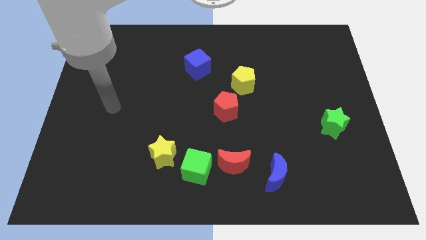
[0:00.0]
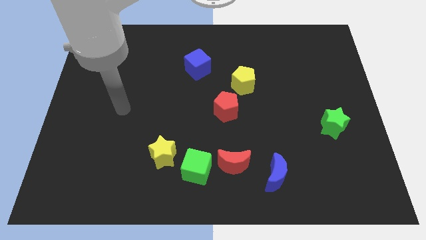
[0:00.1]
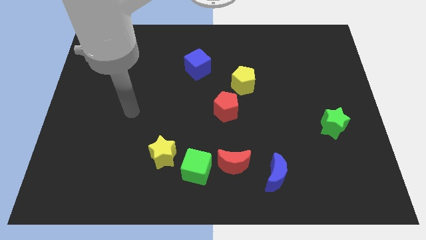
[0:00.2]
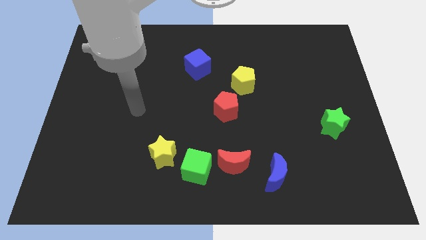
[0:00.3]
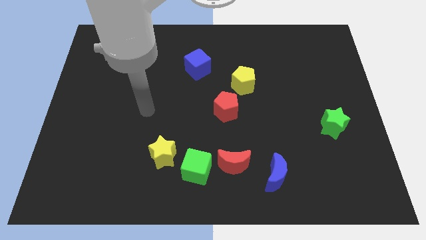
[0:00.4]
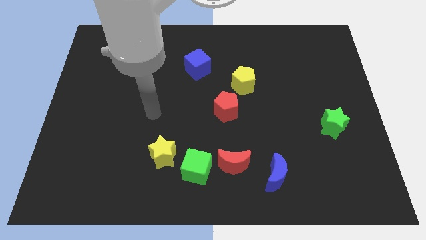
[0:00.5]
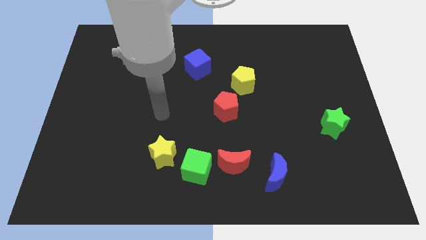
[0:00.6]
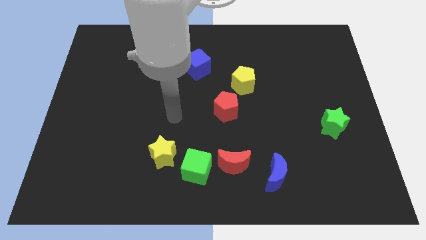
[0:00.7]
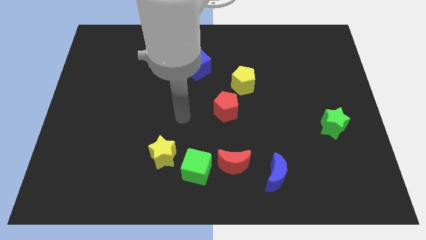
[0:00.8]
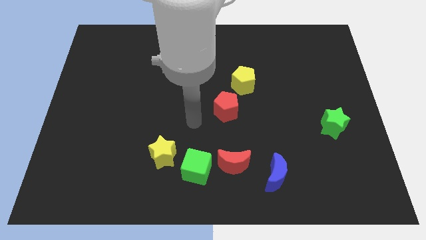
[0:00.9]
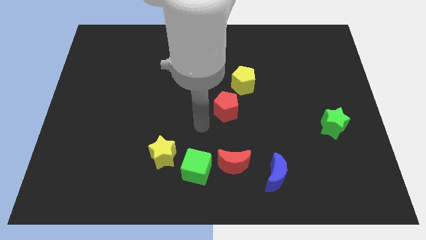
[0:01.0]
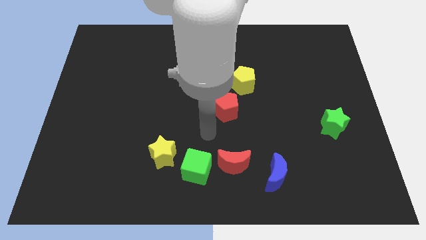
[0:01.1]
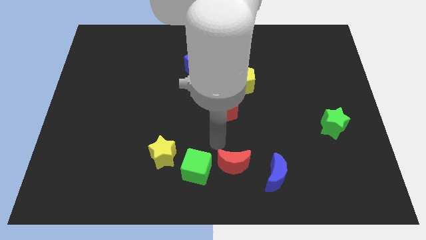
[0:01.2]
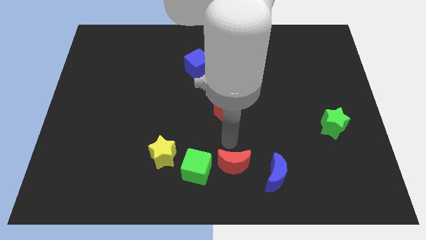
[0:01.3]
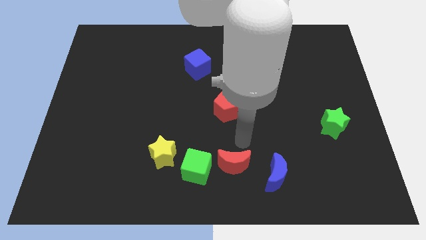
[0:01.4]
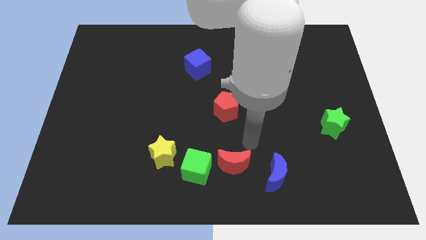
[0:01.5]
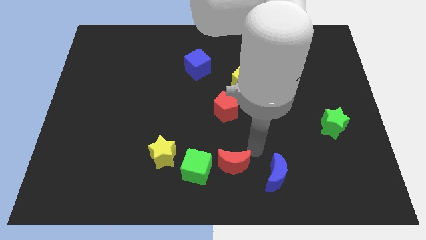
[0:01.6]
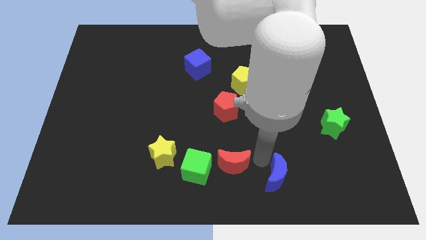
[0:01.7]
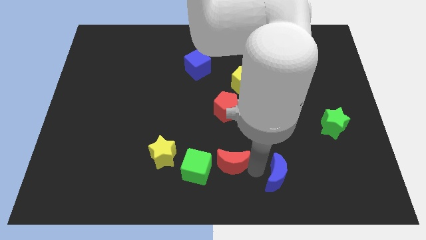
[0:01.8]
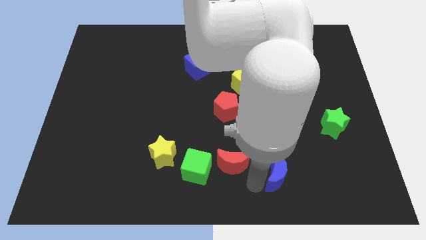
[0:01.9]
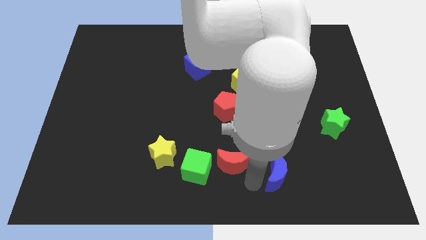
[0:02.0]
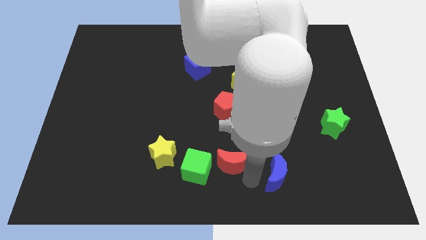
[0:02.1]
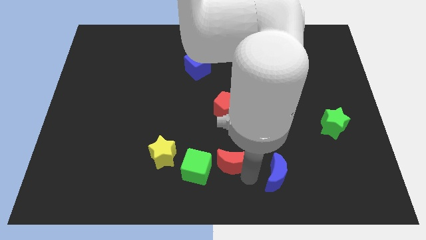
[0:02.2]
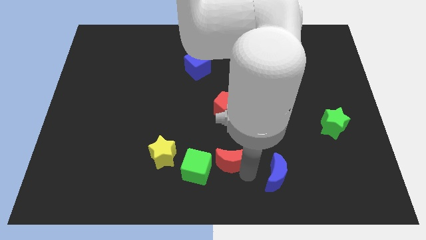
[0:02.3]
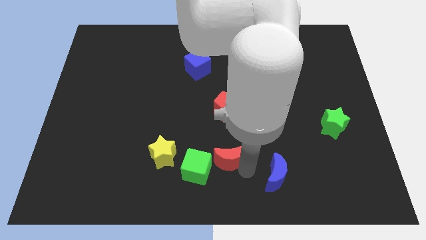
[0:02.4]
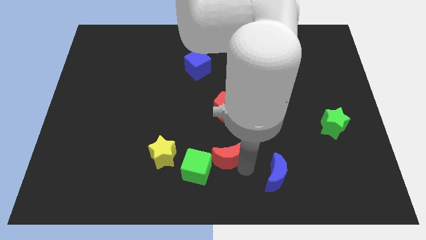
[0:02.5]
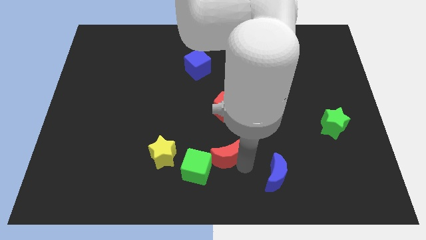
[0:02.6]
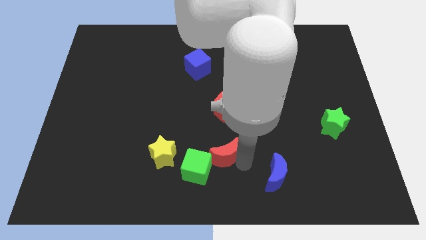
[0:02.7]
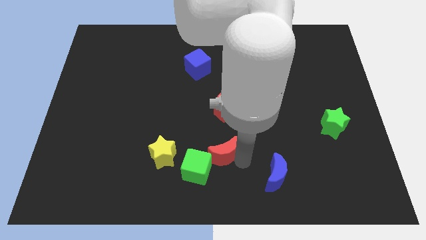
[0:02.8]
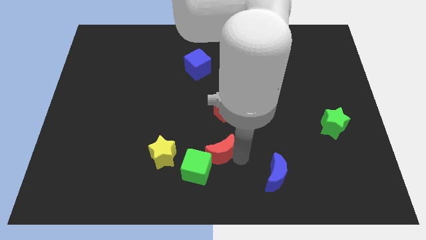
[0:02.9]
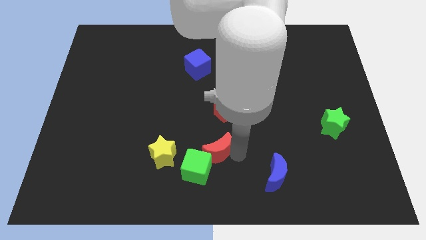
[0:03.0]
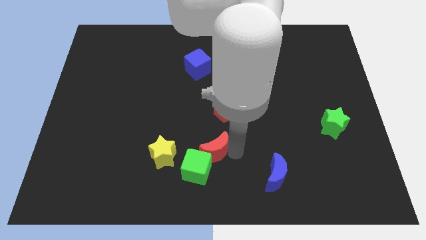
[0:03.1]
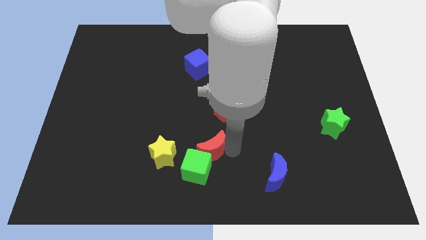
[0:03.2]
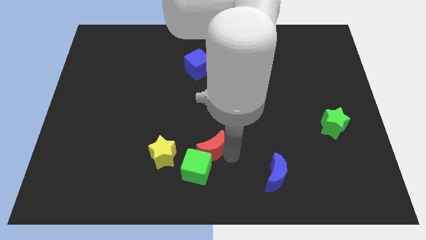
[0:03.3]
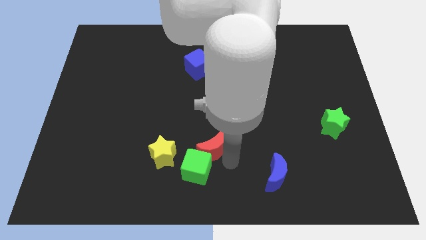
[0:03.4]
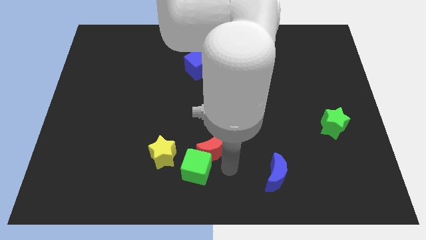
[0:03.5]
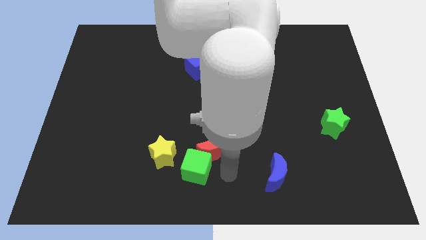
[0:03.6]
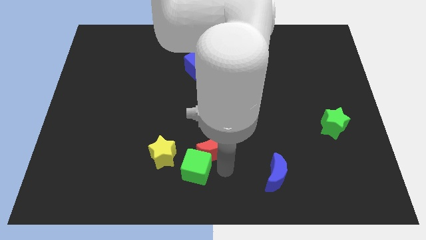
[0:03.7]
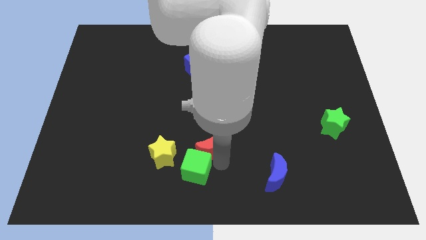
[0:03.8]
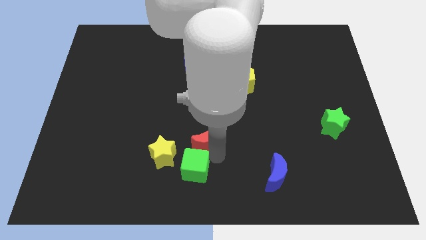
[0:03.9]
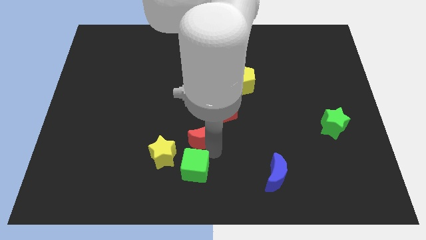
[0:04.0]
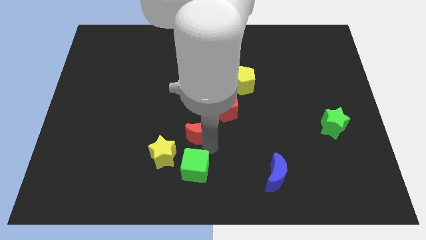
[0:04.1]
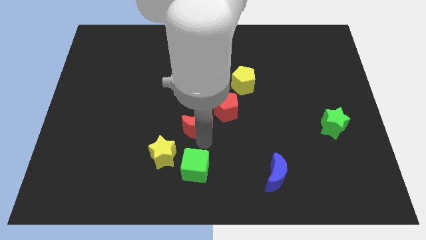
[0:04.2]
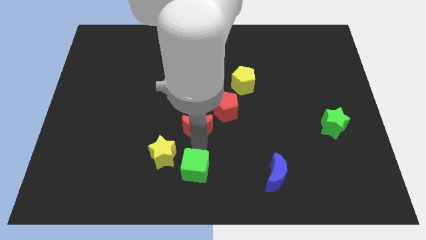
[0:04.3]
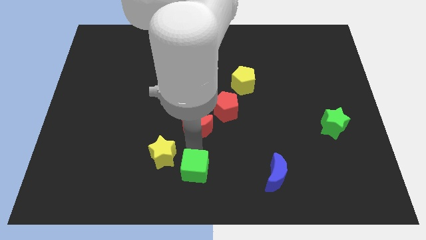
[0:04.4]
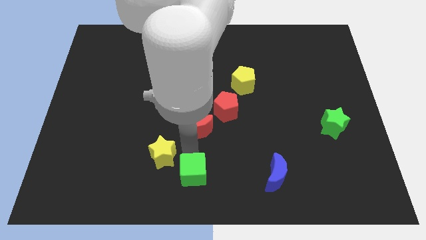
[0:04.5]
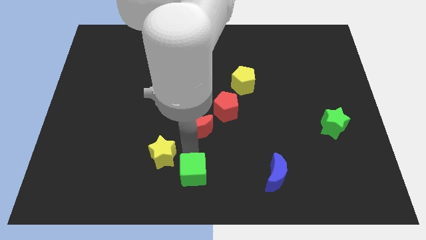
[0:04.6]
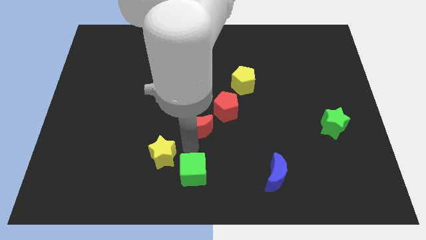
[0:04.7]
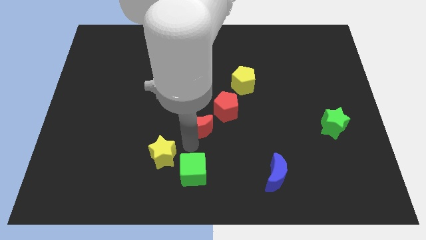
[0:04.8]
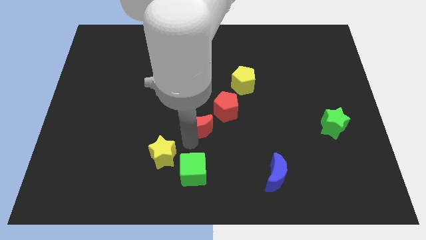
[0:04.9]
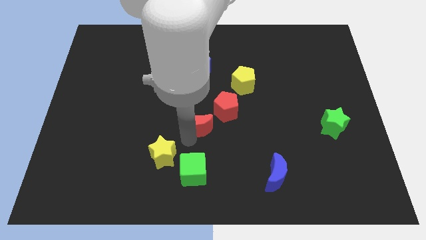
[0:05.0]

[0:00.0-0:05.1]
slide the red moon a little bit up

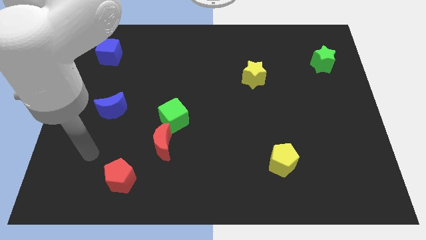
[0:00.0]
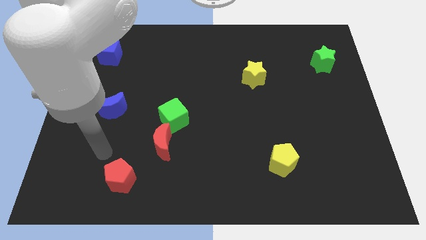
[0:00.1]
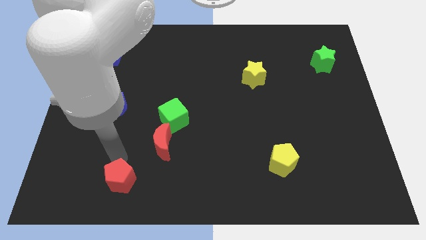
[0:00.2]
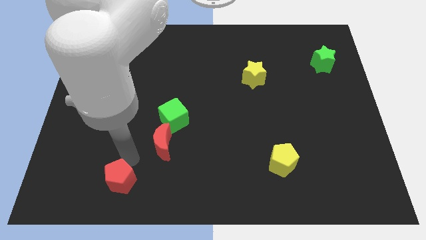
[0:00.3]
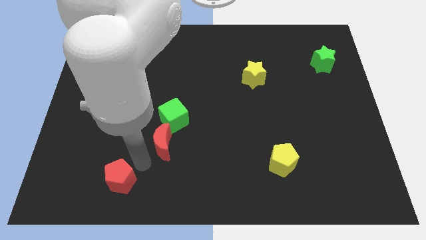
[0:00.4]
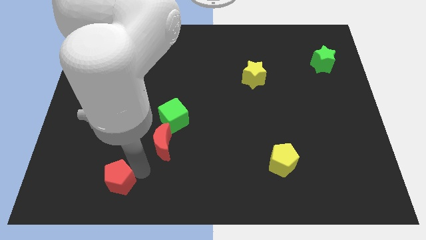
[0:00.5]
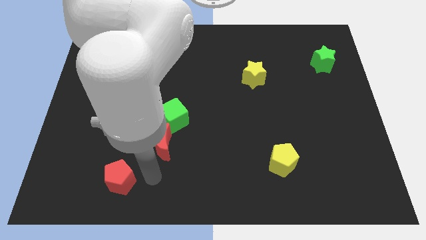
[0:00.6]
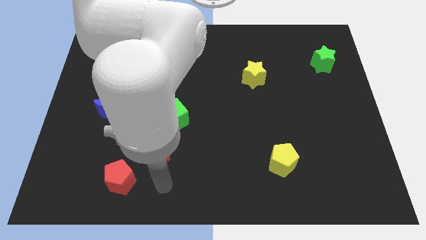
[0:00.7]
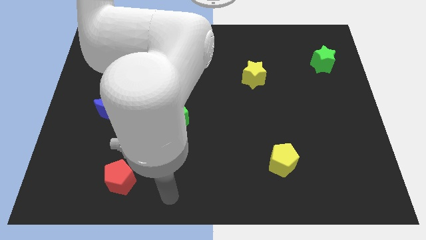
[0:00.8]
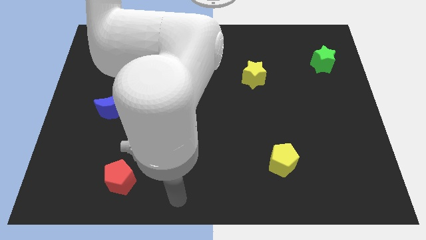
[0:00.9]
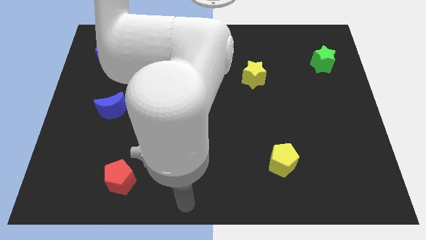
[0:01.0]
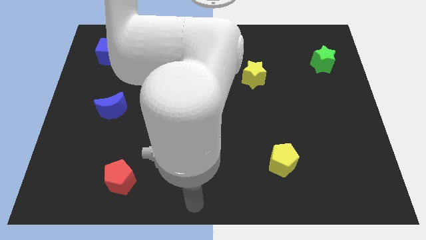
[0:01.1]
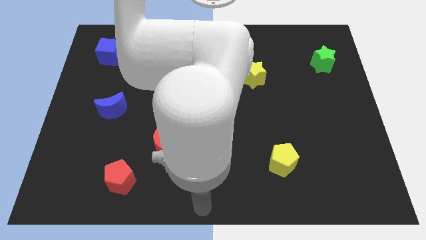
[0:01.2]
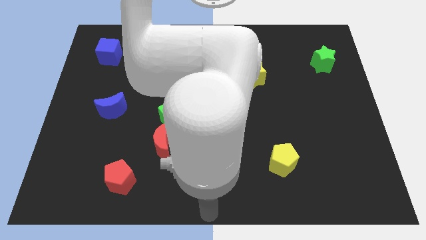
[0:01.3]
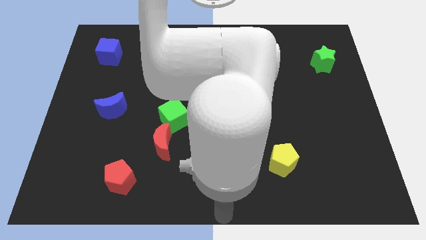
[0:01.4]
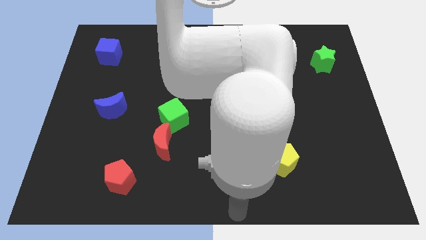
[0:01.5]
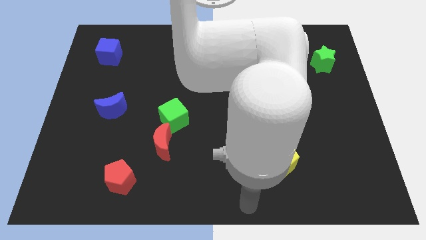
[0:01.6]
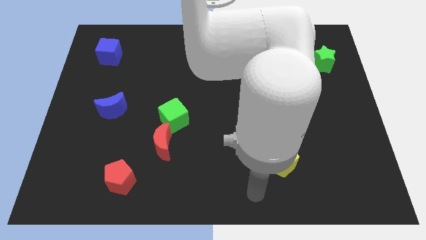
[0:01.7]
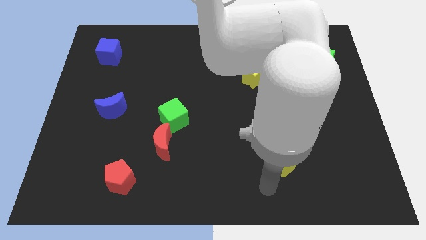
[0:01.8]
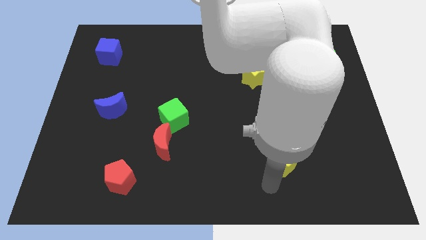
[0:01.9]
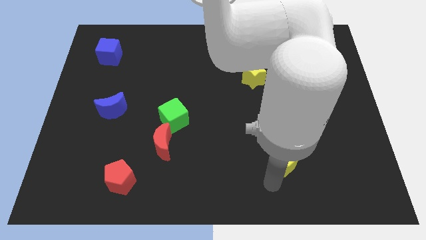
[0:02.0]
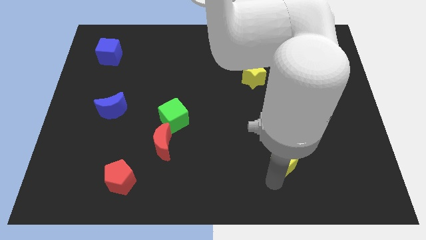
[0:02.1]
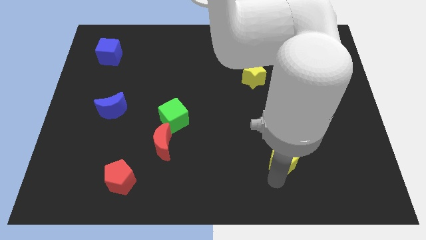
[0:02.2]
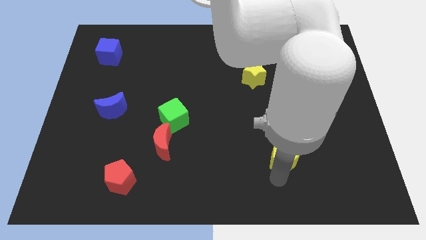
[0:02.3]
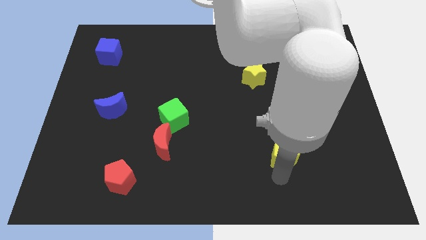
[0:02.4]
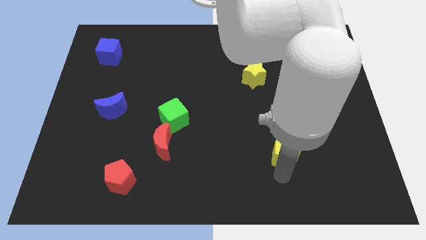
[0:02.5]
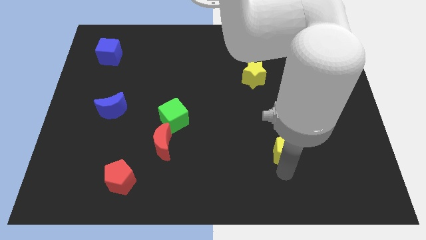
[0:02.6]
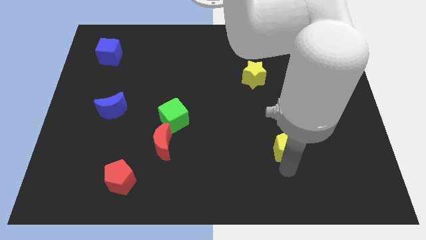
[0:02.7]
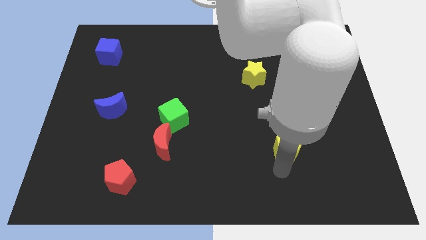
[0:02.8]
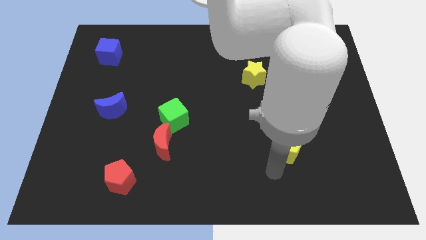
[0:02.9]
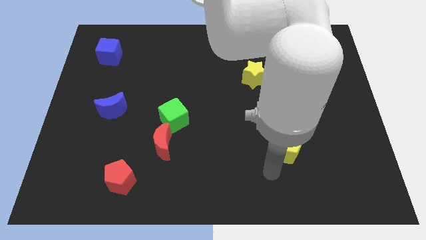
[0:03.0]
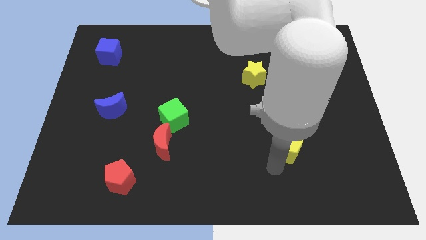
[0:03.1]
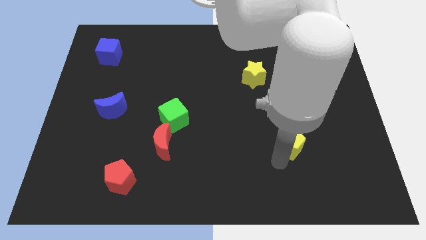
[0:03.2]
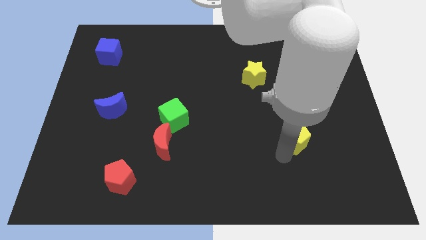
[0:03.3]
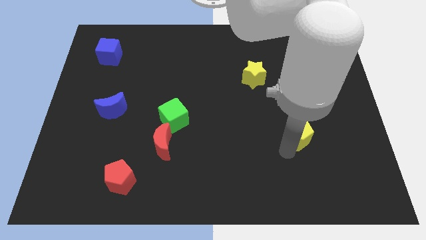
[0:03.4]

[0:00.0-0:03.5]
slightly move the yellow pentagon upwards and right
